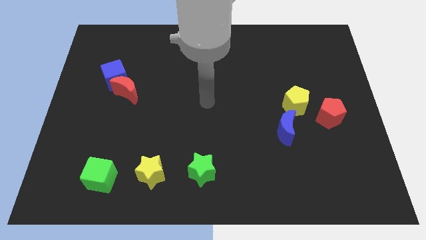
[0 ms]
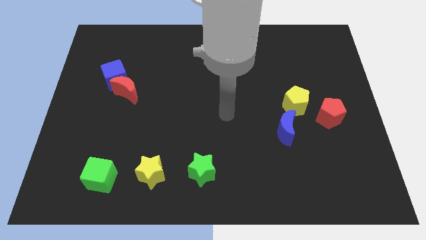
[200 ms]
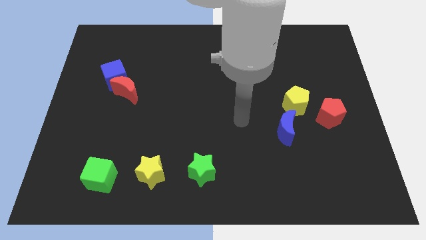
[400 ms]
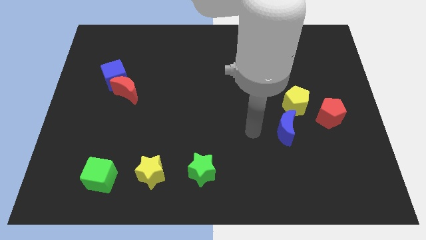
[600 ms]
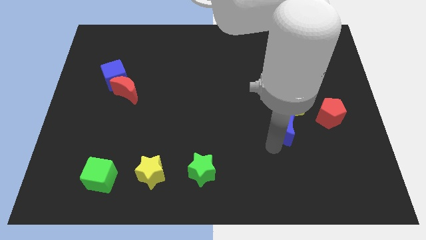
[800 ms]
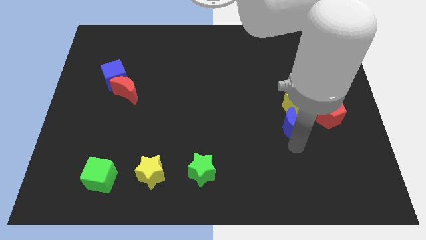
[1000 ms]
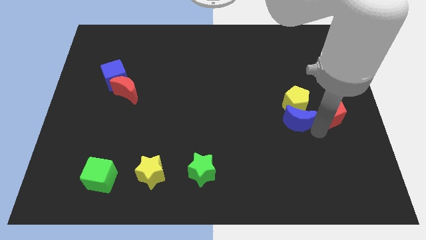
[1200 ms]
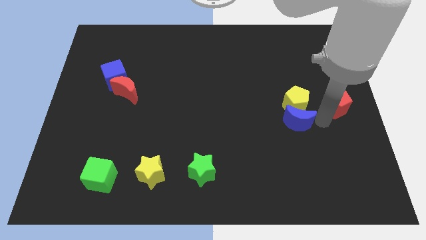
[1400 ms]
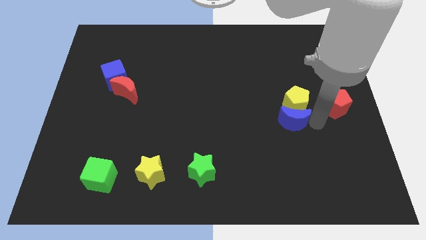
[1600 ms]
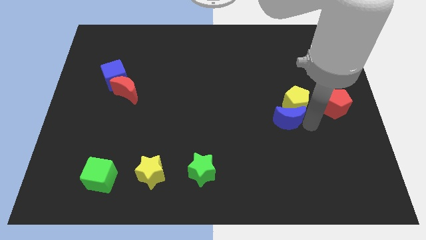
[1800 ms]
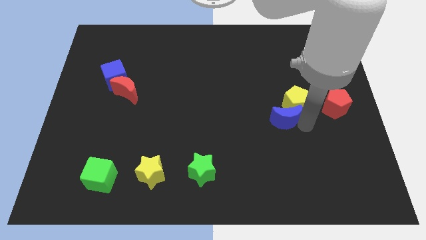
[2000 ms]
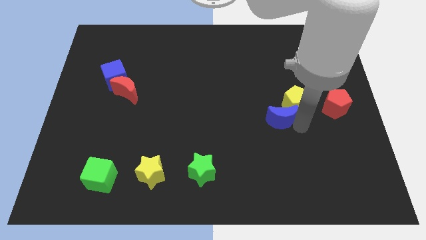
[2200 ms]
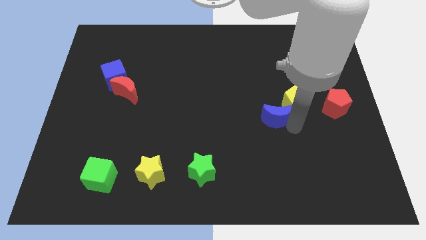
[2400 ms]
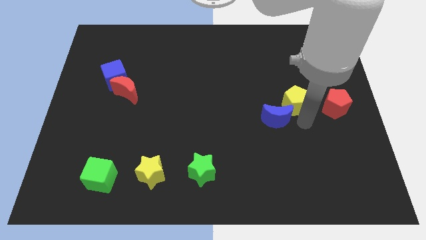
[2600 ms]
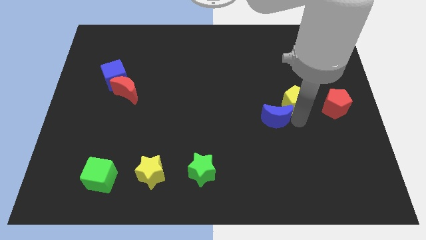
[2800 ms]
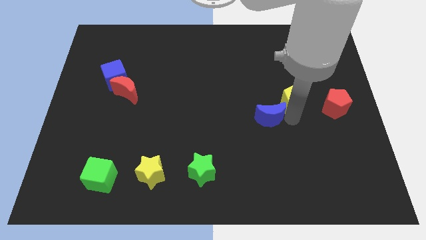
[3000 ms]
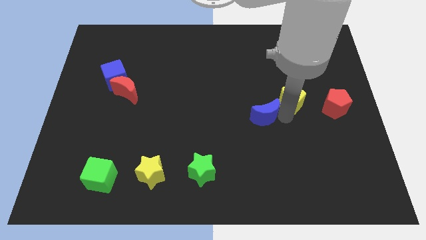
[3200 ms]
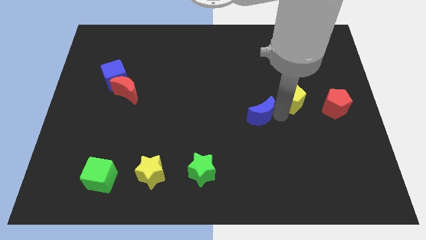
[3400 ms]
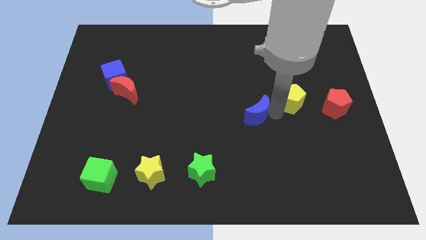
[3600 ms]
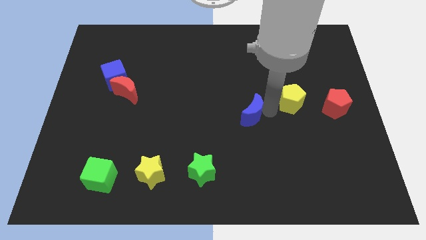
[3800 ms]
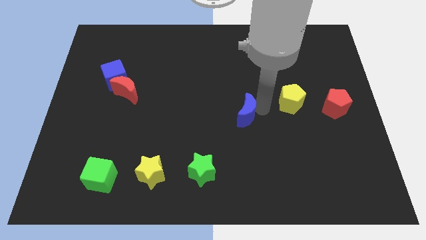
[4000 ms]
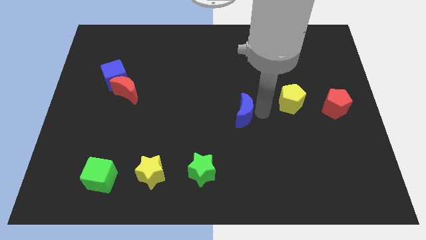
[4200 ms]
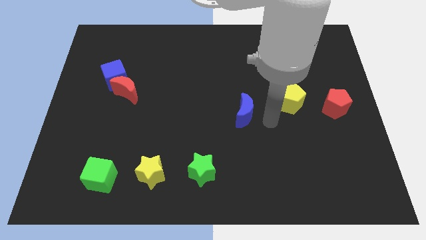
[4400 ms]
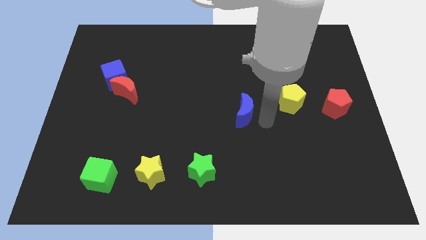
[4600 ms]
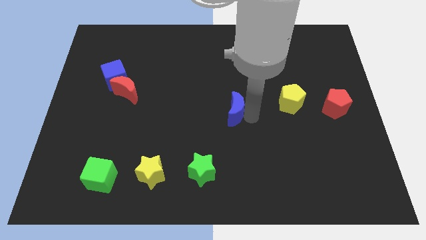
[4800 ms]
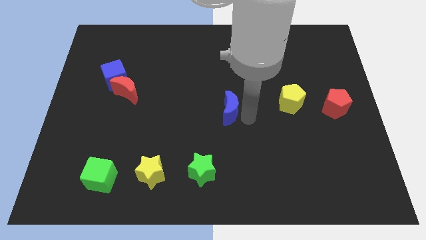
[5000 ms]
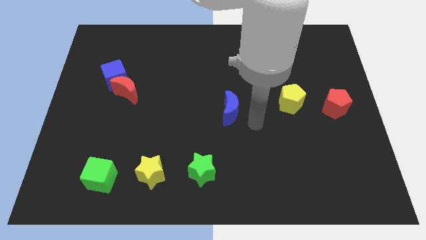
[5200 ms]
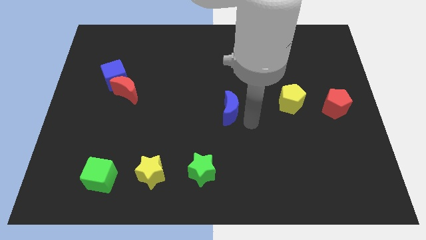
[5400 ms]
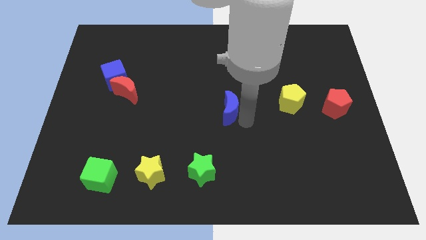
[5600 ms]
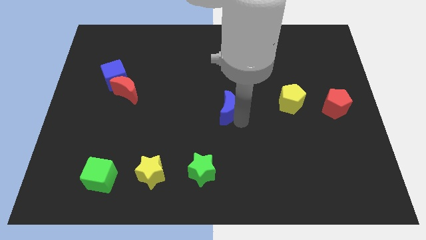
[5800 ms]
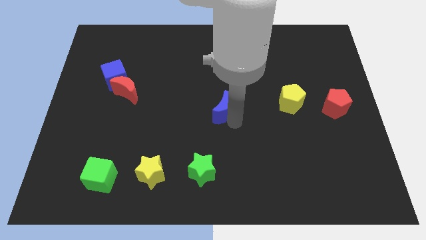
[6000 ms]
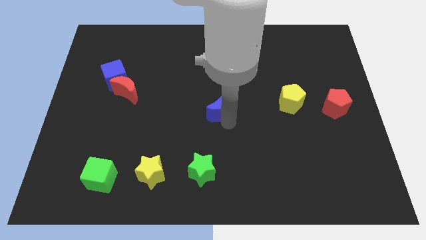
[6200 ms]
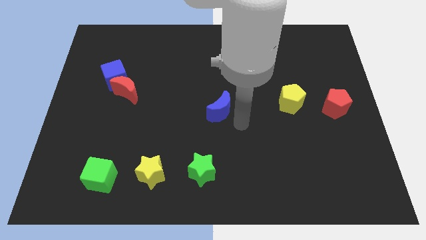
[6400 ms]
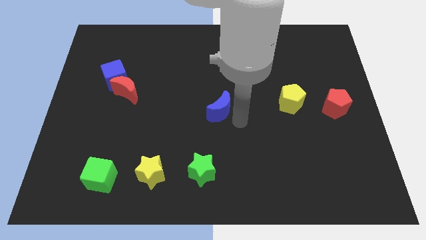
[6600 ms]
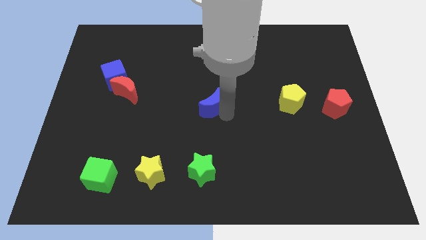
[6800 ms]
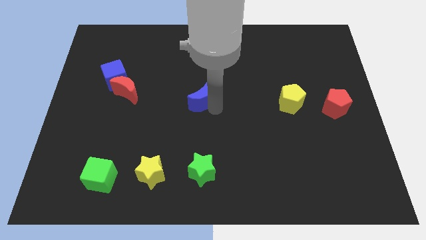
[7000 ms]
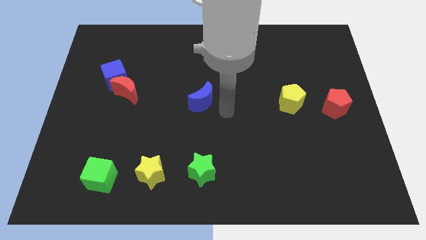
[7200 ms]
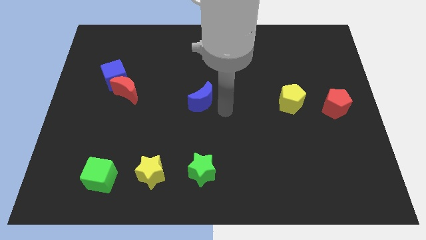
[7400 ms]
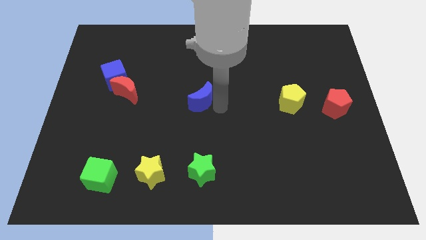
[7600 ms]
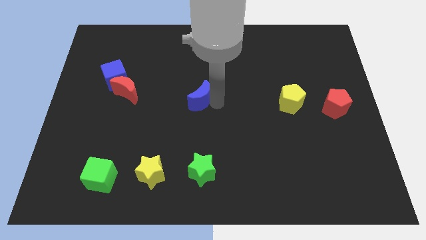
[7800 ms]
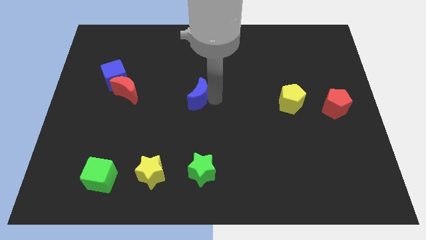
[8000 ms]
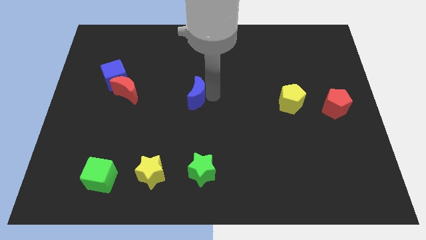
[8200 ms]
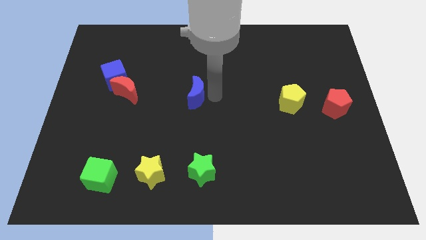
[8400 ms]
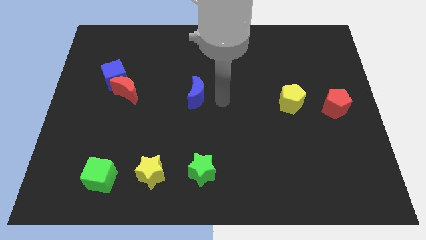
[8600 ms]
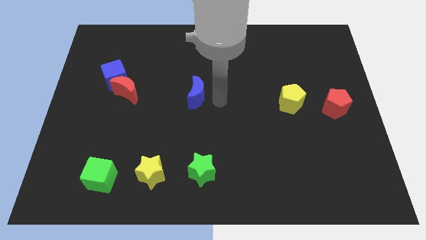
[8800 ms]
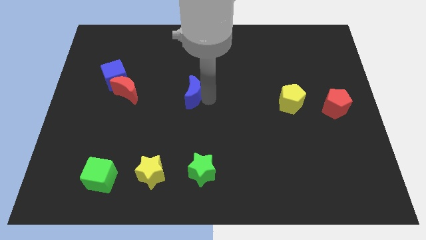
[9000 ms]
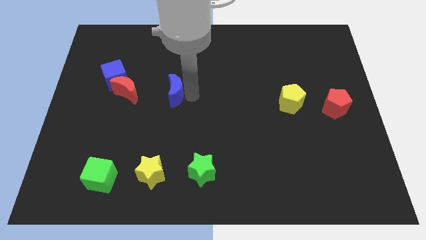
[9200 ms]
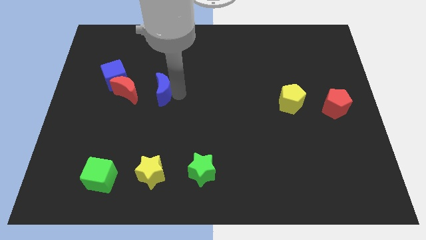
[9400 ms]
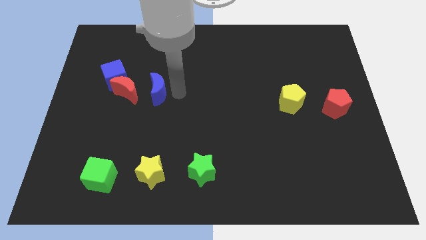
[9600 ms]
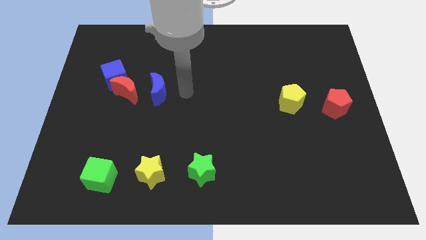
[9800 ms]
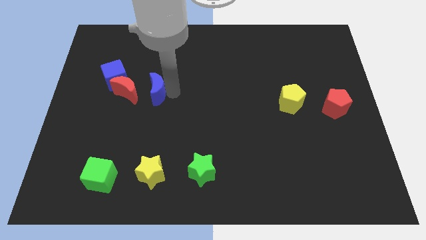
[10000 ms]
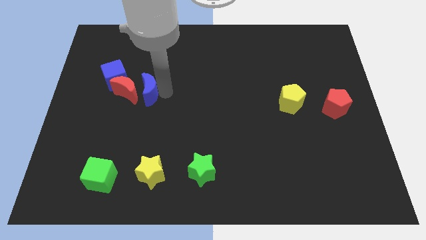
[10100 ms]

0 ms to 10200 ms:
put the blue moon close to the red moon

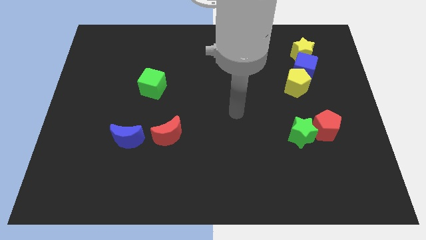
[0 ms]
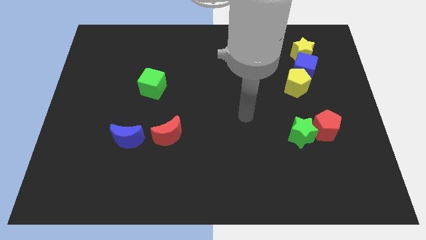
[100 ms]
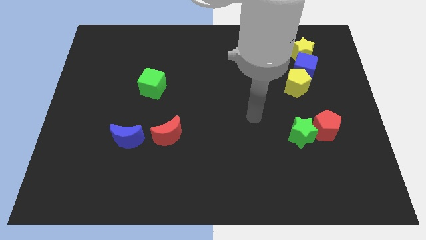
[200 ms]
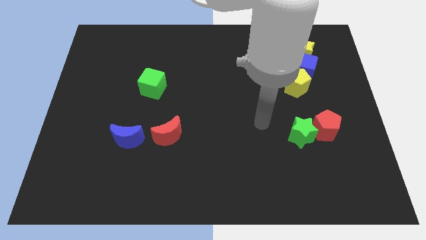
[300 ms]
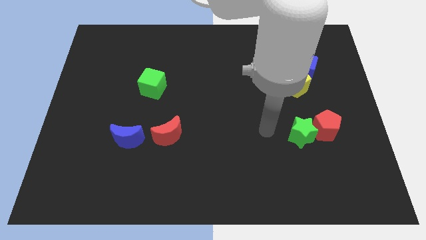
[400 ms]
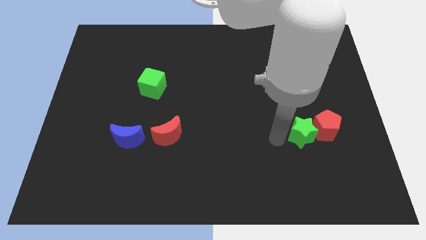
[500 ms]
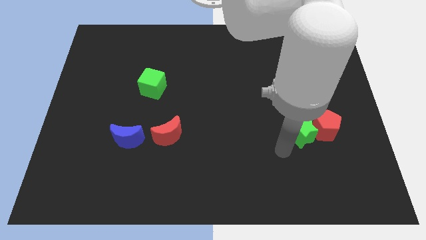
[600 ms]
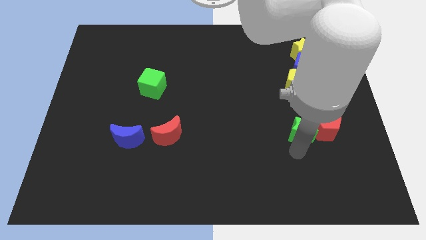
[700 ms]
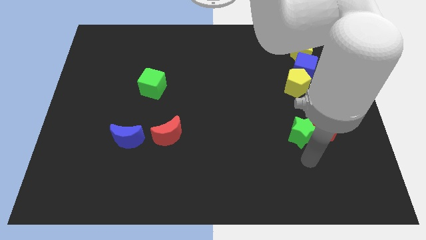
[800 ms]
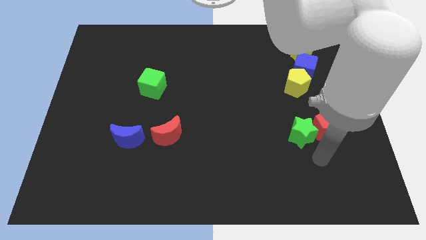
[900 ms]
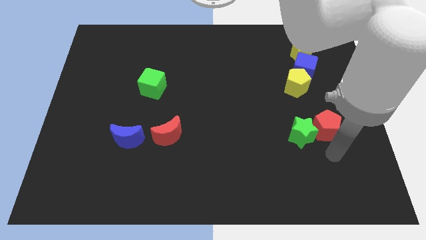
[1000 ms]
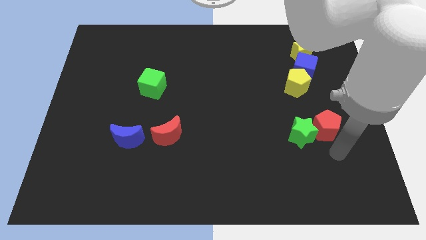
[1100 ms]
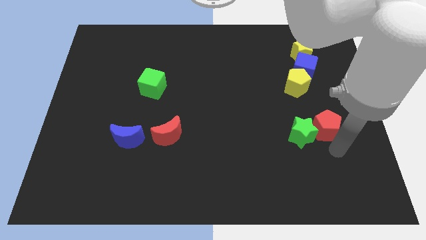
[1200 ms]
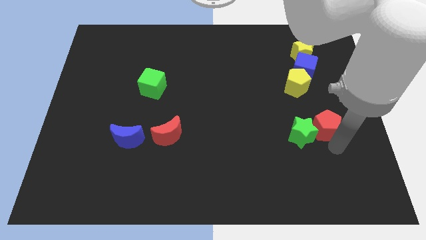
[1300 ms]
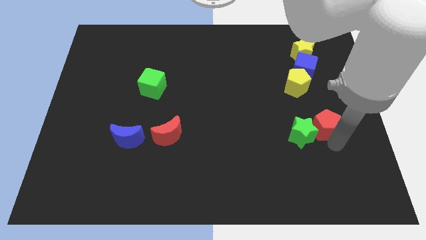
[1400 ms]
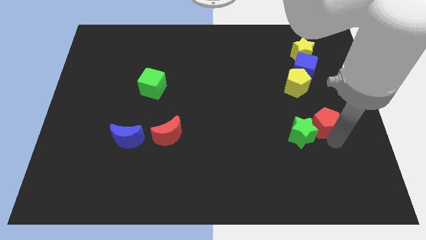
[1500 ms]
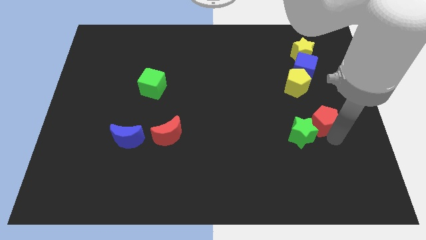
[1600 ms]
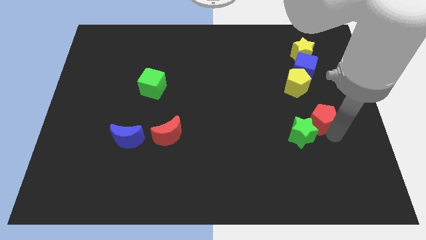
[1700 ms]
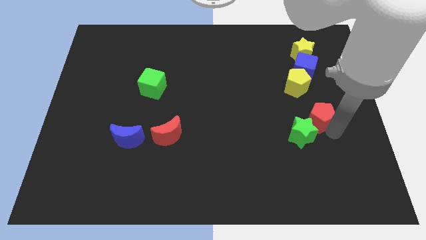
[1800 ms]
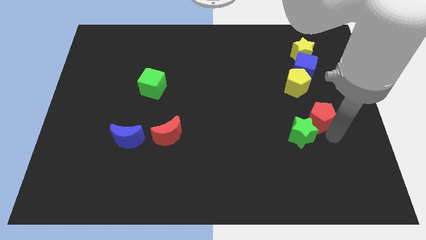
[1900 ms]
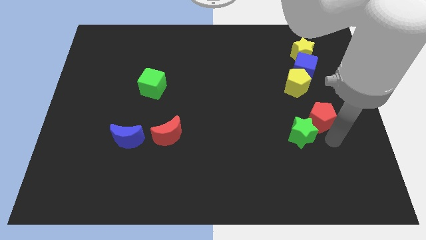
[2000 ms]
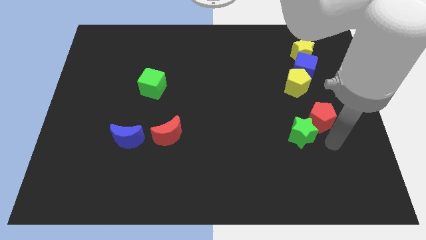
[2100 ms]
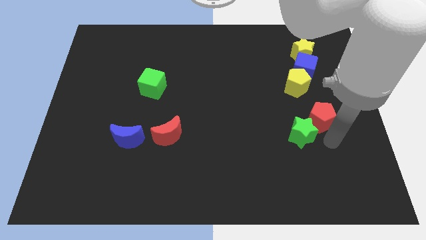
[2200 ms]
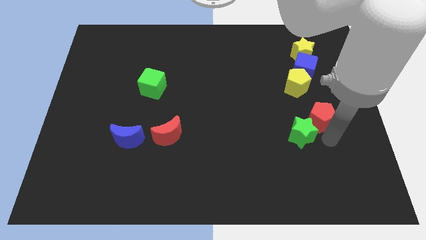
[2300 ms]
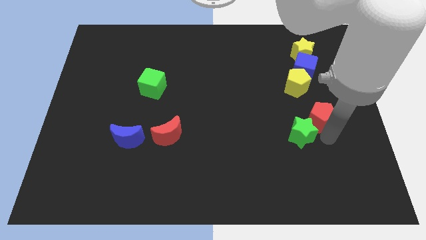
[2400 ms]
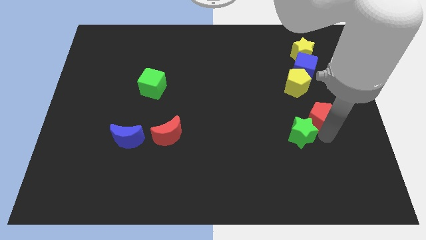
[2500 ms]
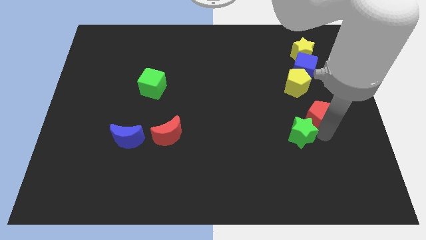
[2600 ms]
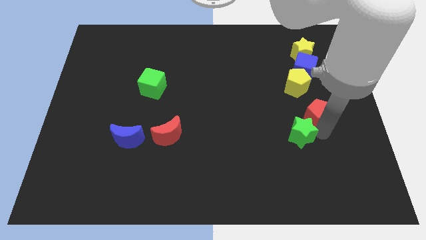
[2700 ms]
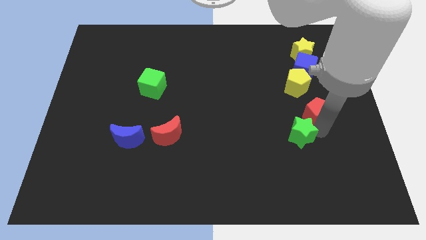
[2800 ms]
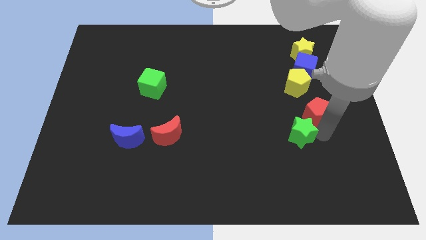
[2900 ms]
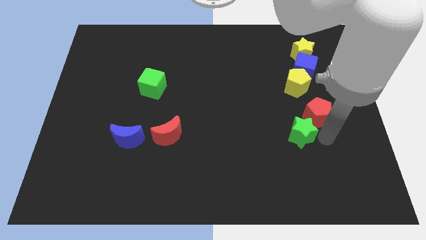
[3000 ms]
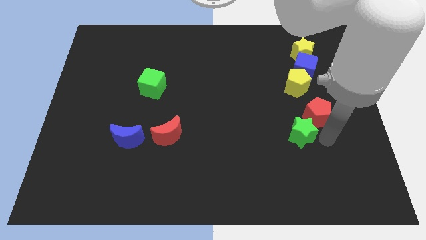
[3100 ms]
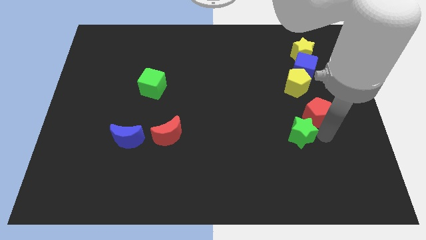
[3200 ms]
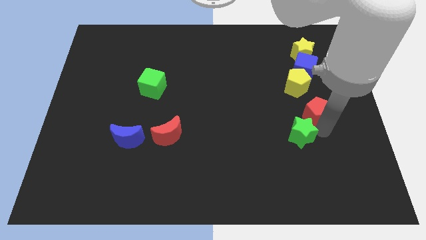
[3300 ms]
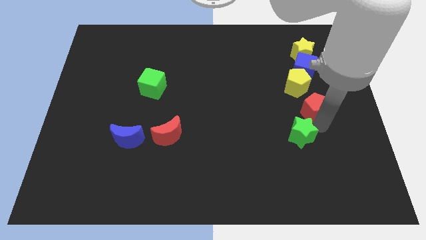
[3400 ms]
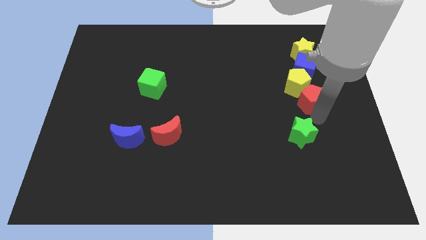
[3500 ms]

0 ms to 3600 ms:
put the red pentagon to the yellow pentagon
